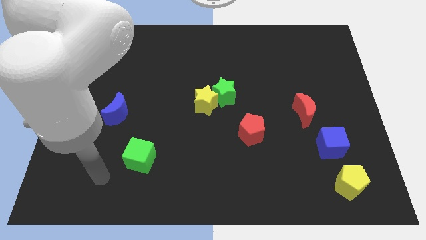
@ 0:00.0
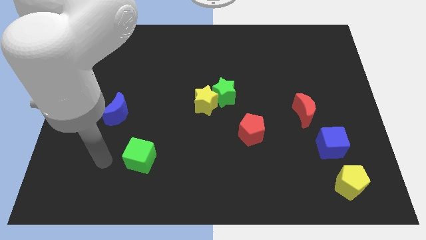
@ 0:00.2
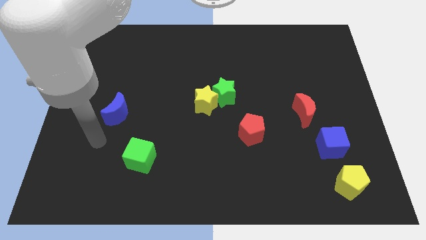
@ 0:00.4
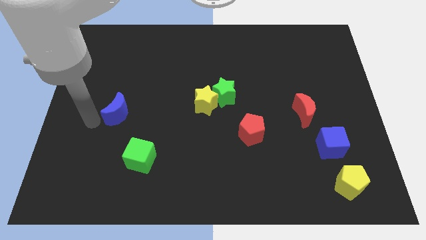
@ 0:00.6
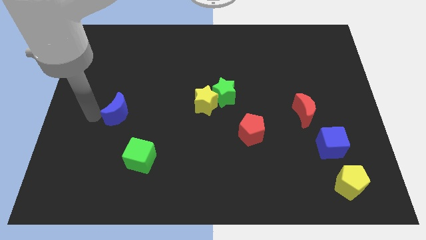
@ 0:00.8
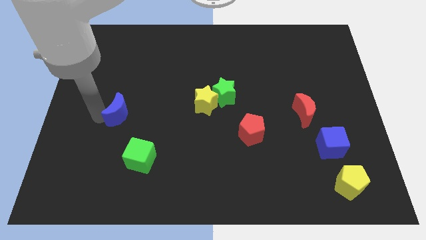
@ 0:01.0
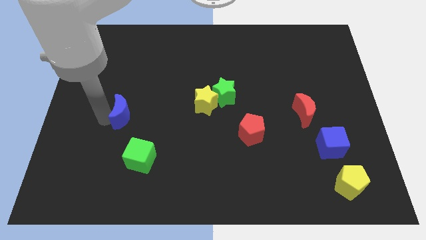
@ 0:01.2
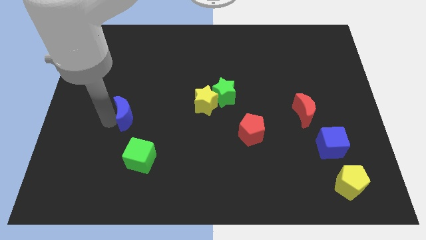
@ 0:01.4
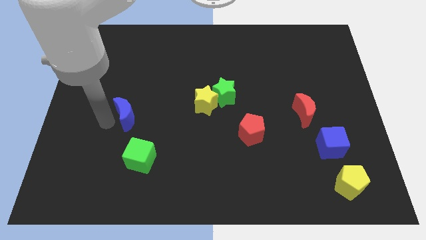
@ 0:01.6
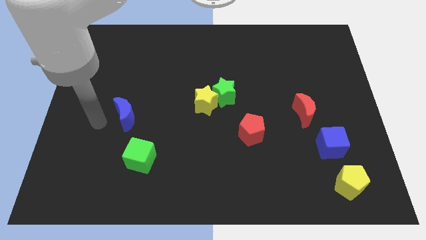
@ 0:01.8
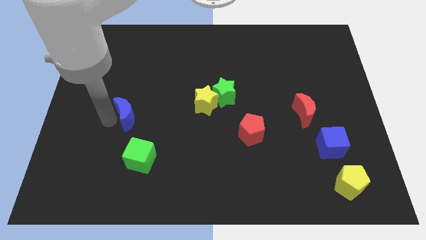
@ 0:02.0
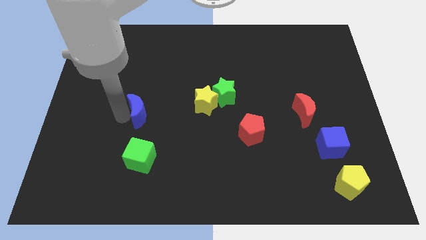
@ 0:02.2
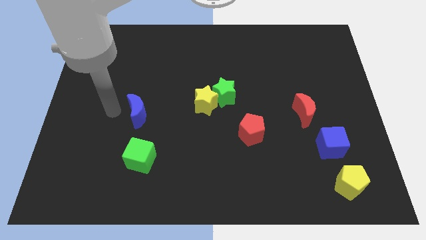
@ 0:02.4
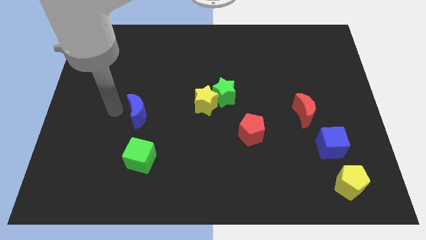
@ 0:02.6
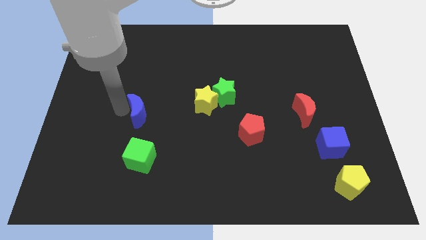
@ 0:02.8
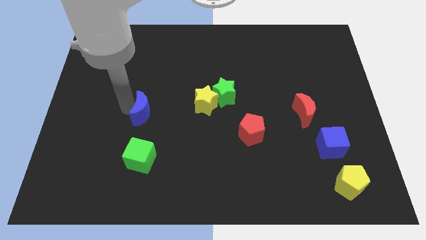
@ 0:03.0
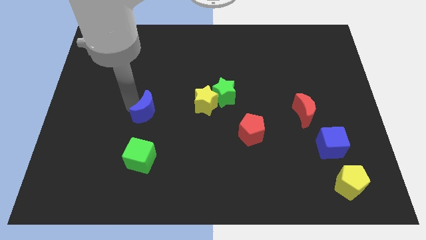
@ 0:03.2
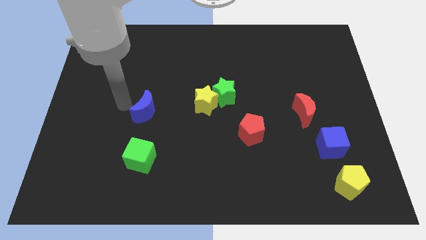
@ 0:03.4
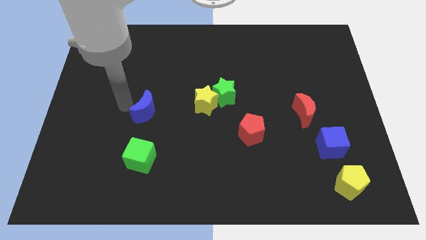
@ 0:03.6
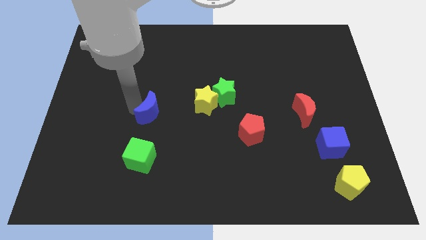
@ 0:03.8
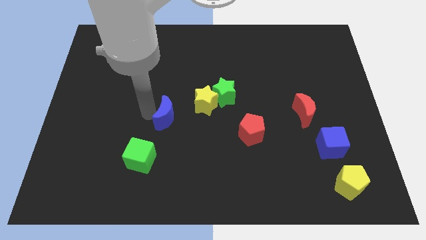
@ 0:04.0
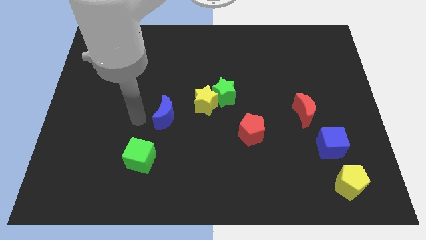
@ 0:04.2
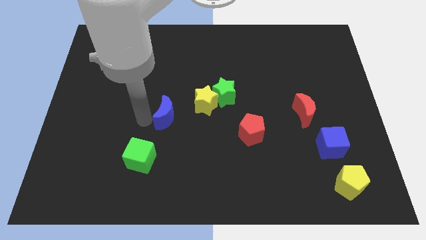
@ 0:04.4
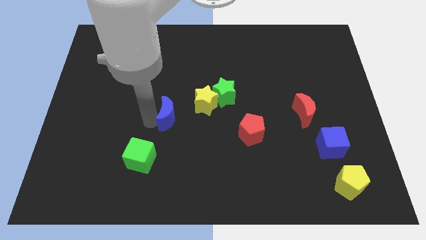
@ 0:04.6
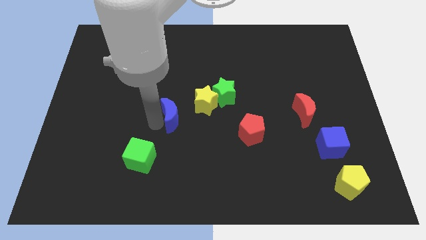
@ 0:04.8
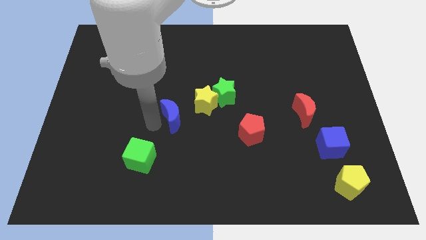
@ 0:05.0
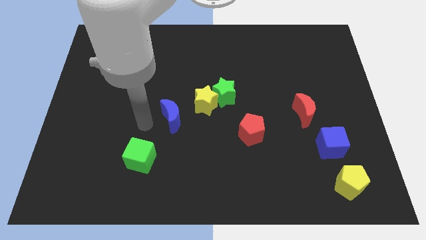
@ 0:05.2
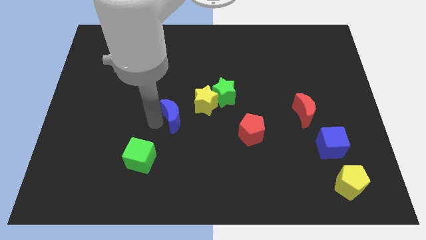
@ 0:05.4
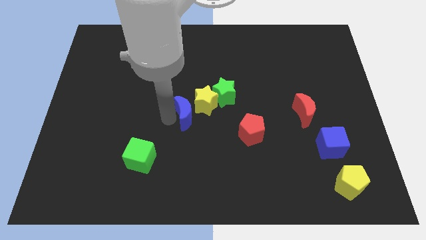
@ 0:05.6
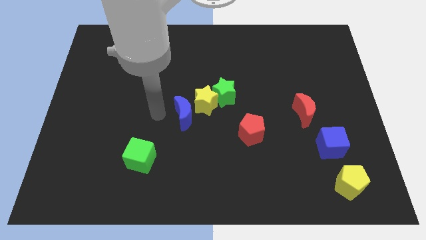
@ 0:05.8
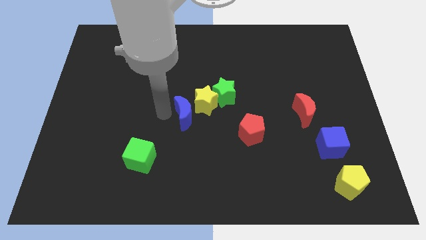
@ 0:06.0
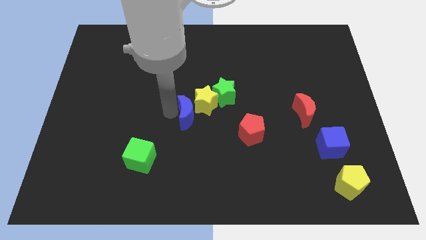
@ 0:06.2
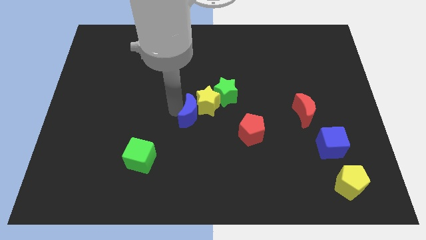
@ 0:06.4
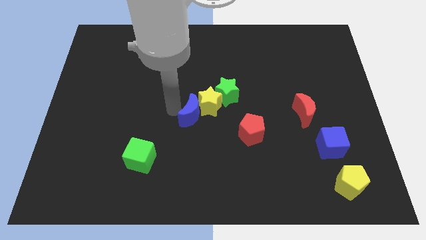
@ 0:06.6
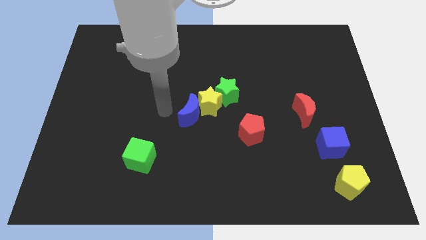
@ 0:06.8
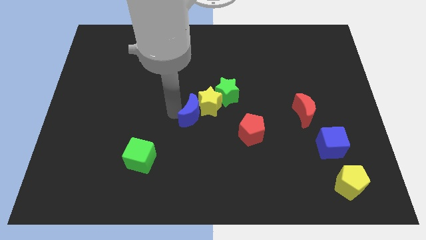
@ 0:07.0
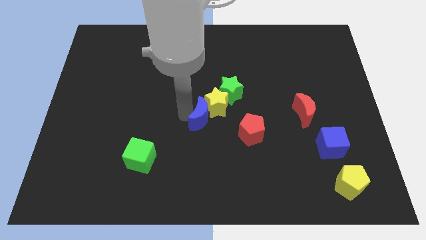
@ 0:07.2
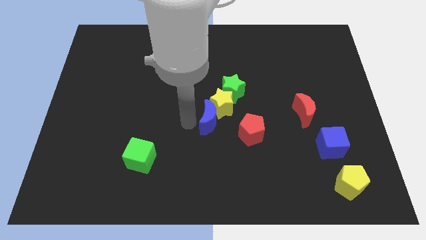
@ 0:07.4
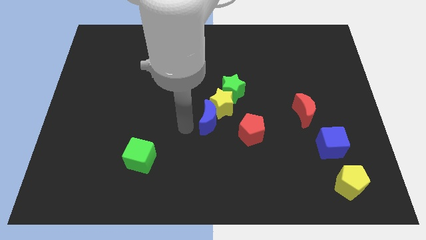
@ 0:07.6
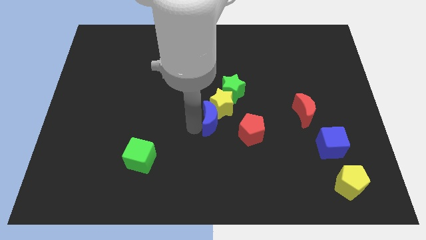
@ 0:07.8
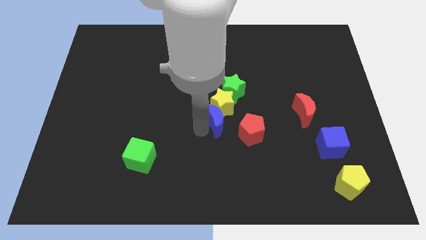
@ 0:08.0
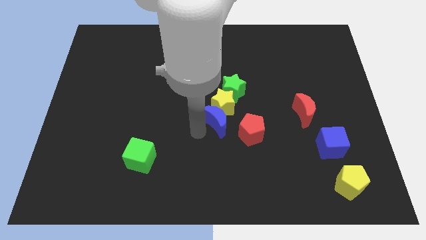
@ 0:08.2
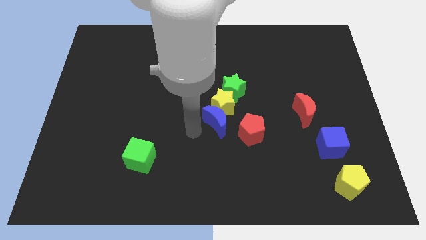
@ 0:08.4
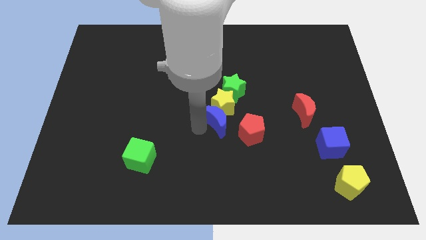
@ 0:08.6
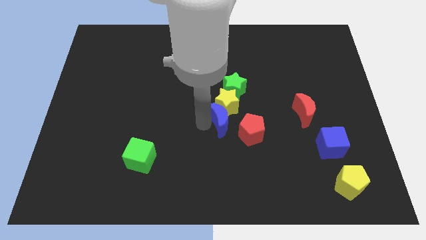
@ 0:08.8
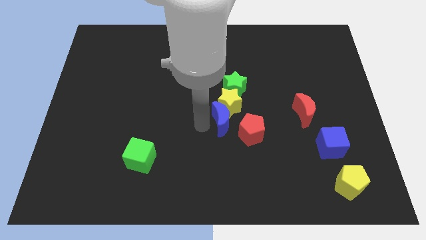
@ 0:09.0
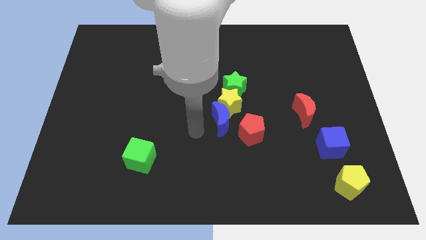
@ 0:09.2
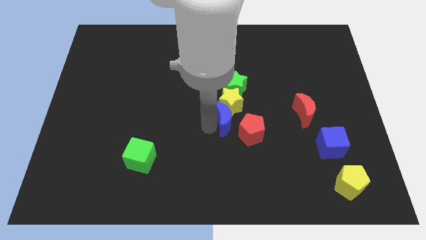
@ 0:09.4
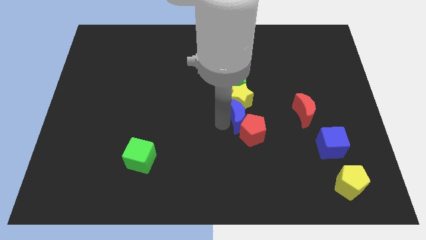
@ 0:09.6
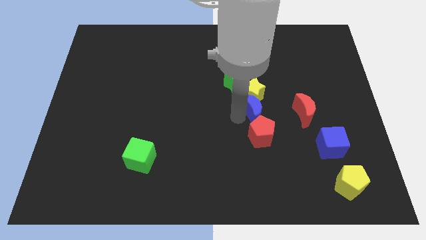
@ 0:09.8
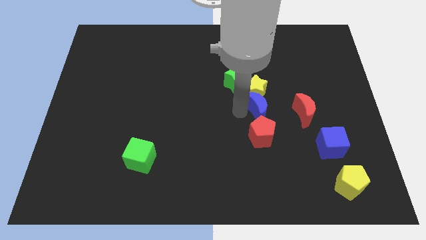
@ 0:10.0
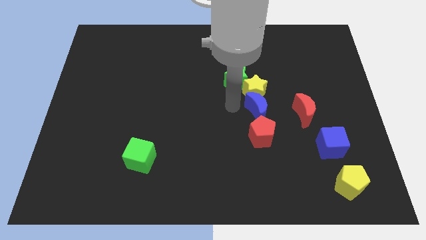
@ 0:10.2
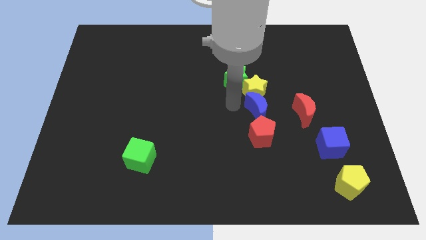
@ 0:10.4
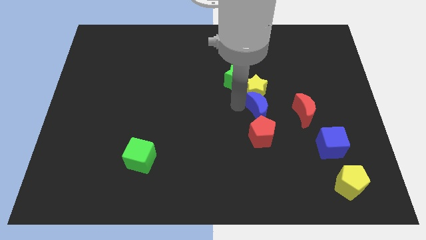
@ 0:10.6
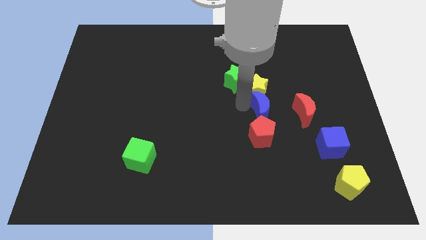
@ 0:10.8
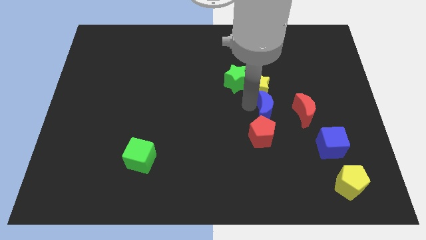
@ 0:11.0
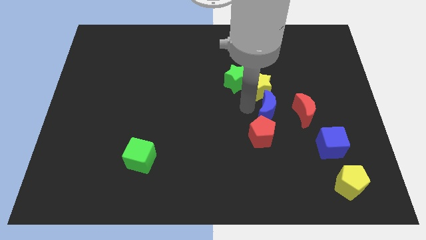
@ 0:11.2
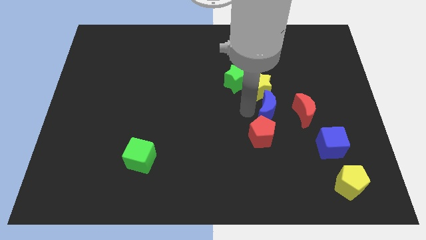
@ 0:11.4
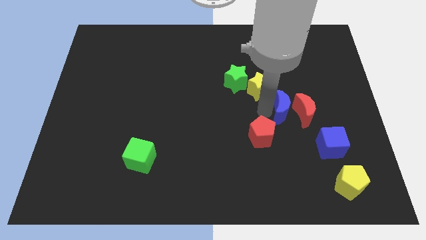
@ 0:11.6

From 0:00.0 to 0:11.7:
put the blue moon next to the red moon
